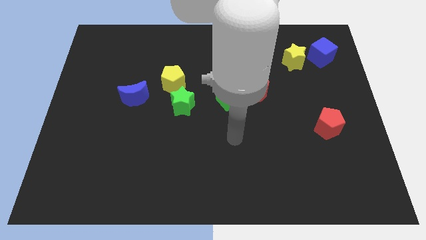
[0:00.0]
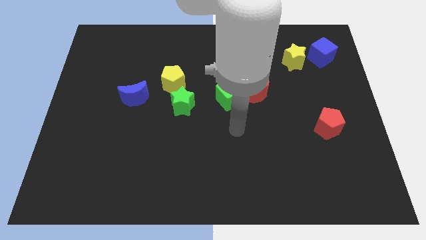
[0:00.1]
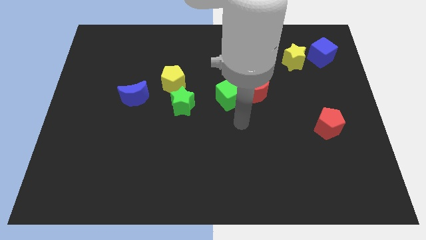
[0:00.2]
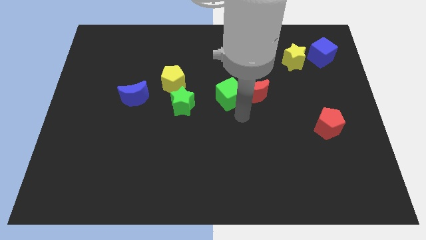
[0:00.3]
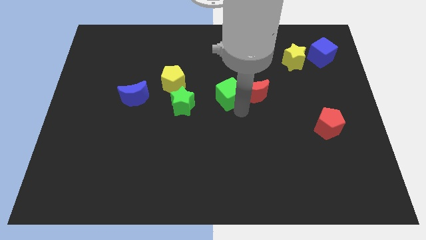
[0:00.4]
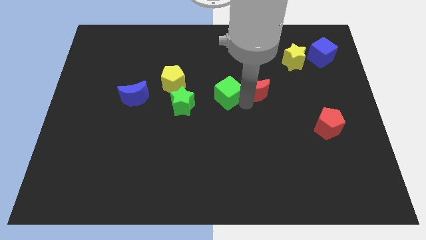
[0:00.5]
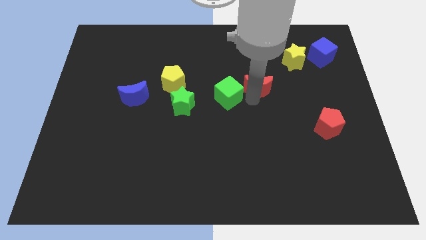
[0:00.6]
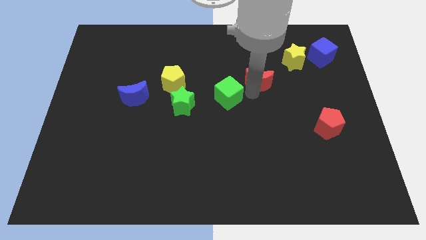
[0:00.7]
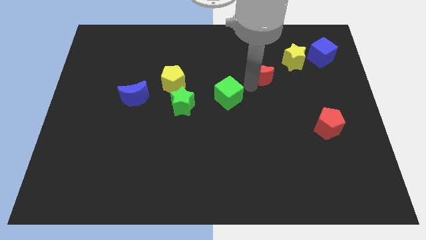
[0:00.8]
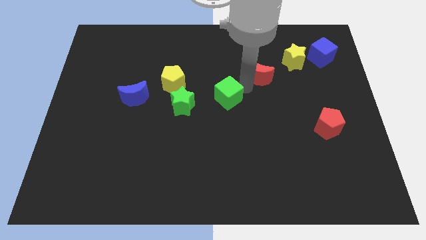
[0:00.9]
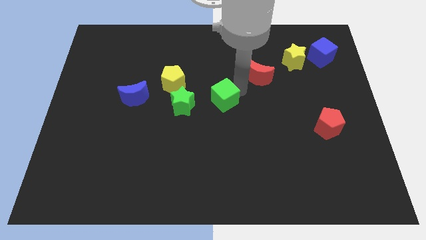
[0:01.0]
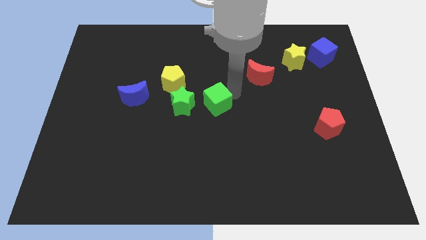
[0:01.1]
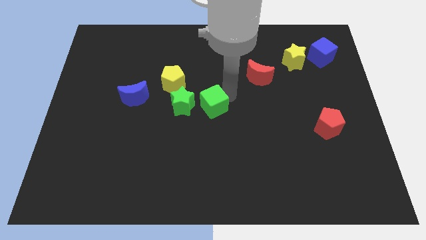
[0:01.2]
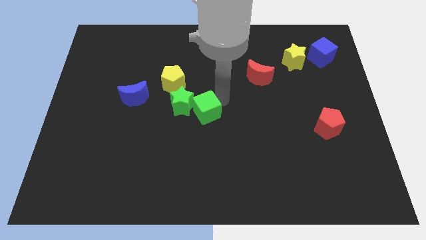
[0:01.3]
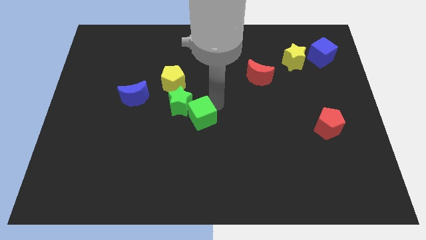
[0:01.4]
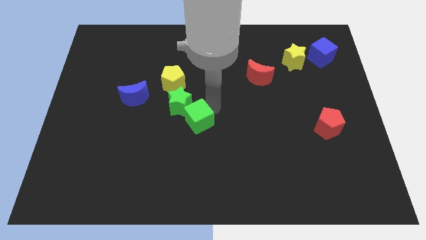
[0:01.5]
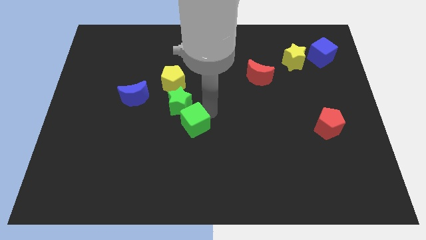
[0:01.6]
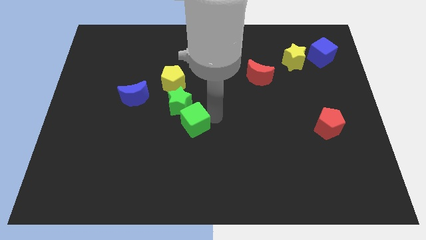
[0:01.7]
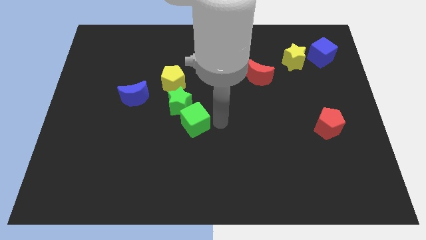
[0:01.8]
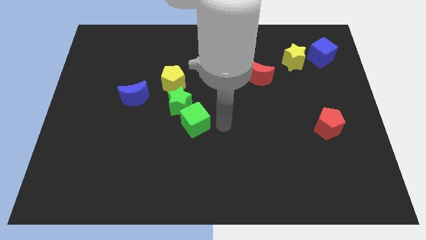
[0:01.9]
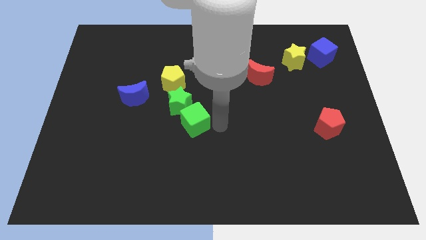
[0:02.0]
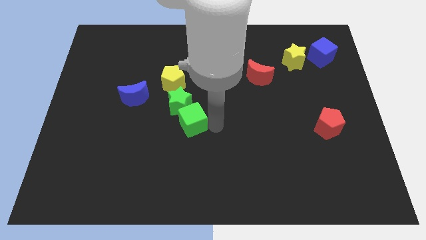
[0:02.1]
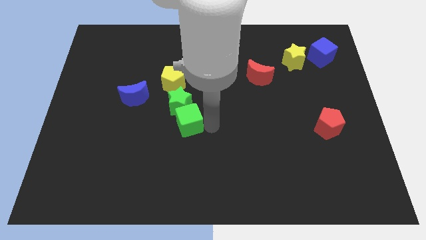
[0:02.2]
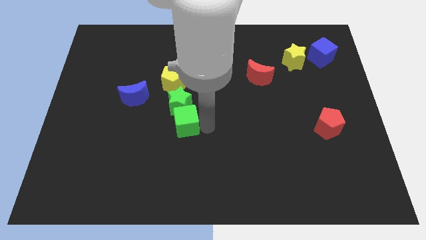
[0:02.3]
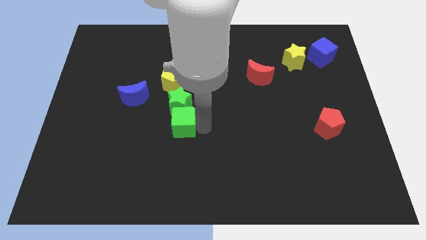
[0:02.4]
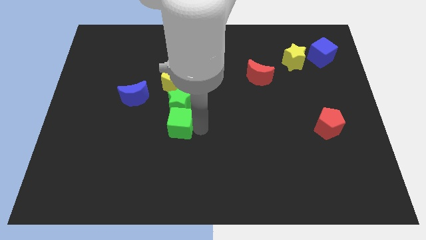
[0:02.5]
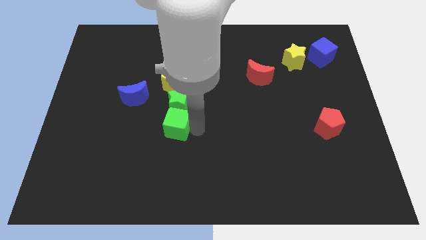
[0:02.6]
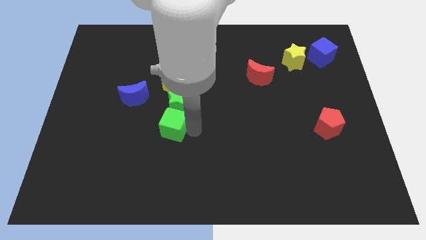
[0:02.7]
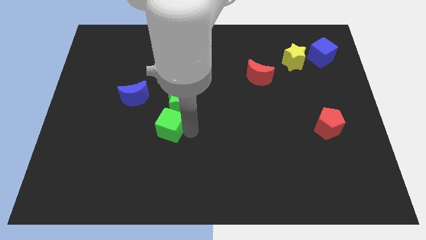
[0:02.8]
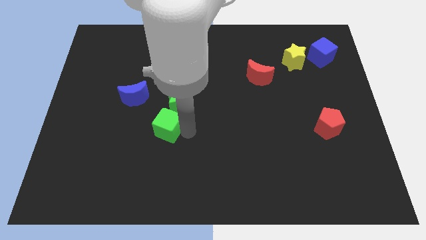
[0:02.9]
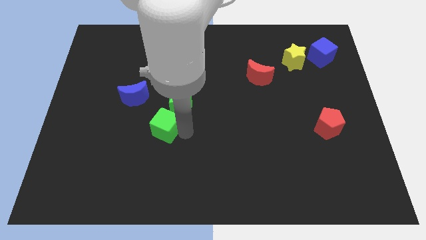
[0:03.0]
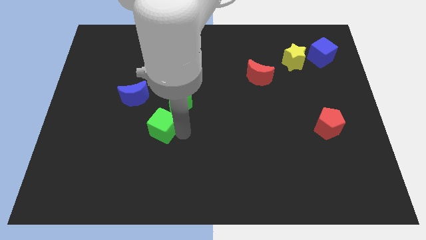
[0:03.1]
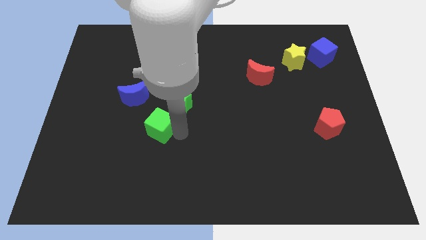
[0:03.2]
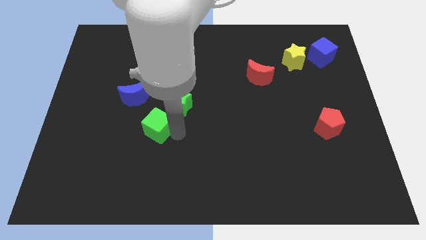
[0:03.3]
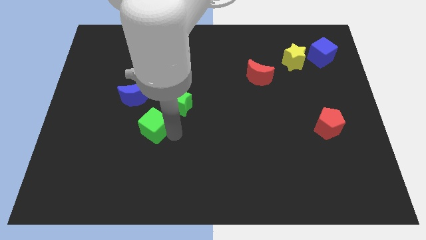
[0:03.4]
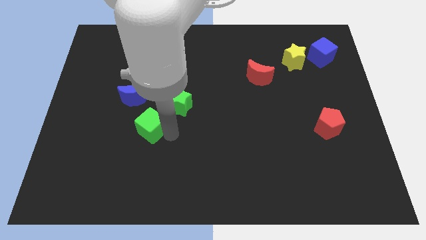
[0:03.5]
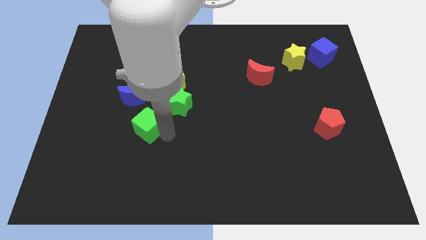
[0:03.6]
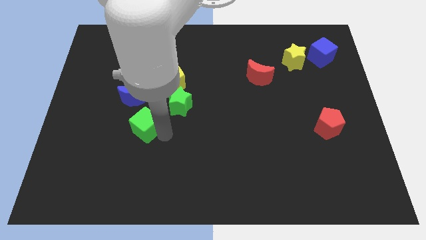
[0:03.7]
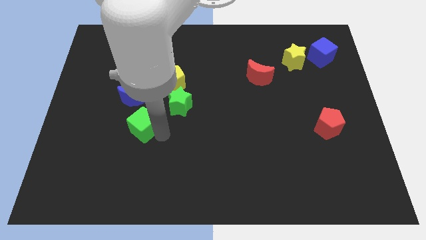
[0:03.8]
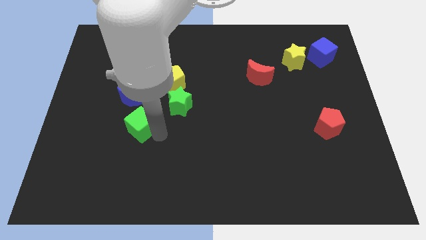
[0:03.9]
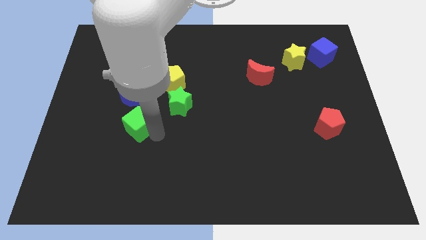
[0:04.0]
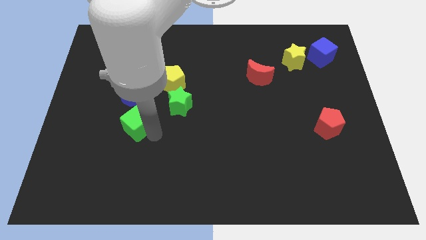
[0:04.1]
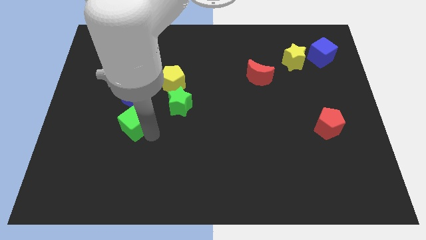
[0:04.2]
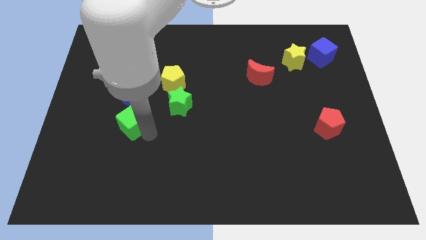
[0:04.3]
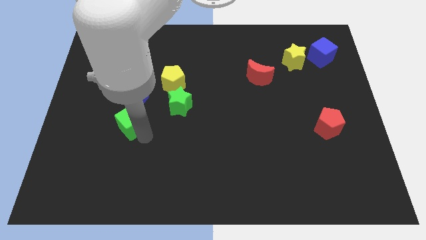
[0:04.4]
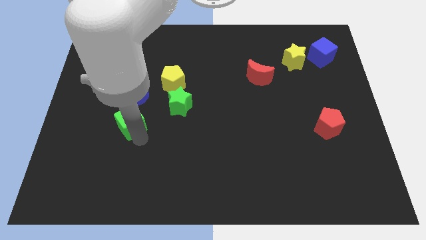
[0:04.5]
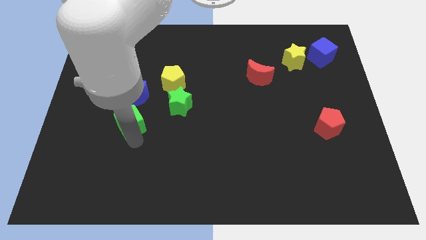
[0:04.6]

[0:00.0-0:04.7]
slide the green cube left

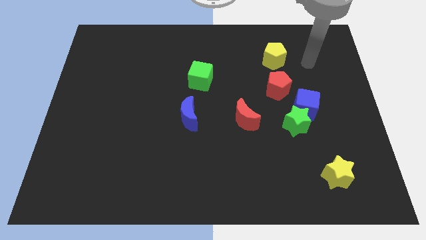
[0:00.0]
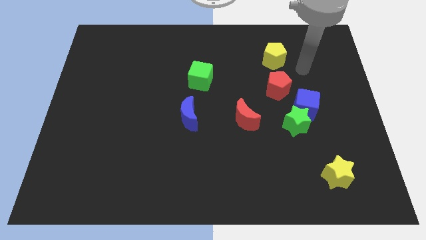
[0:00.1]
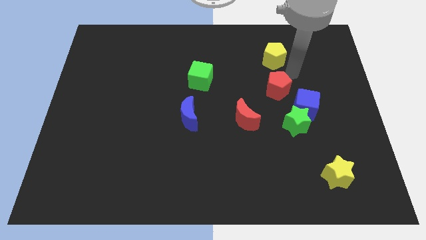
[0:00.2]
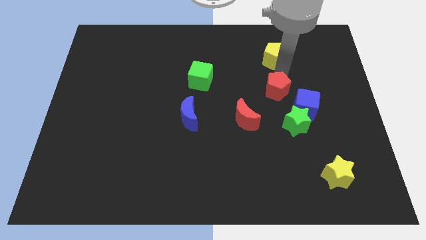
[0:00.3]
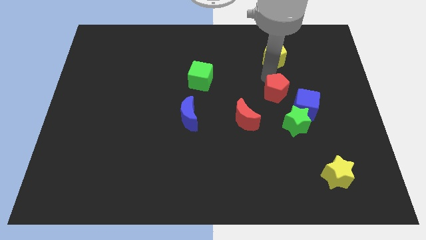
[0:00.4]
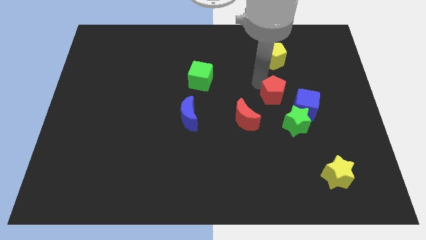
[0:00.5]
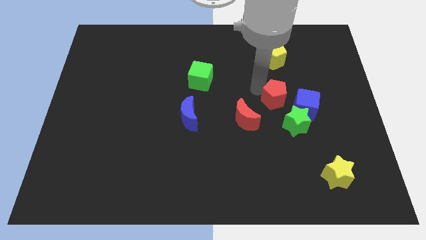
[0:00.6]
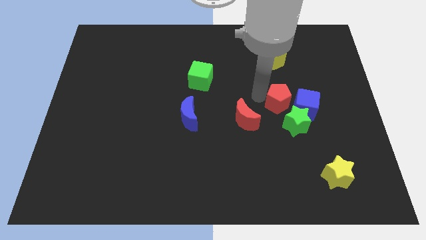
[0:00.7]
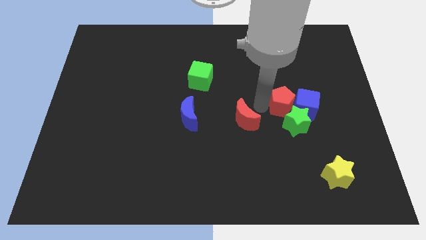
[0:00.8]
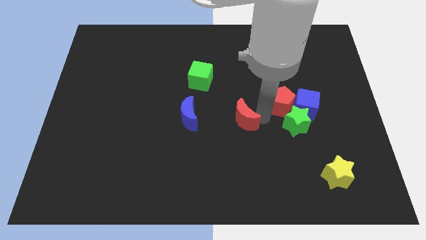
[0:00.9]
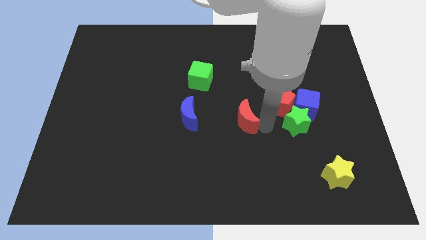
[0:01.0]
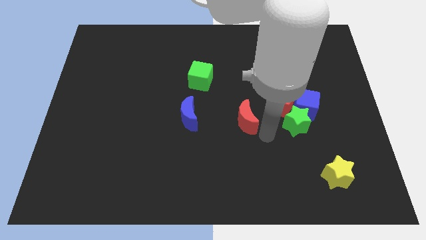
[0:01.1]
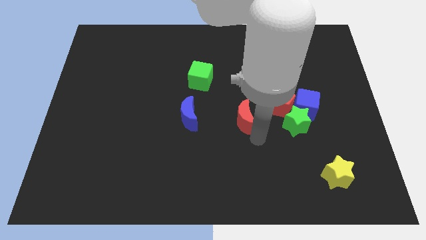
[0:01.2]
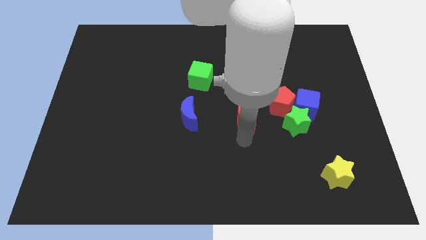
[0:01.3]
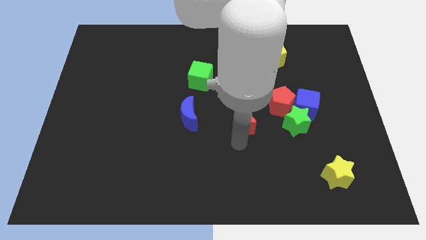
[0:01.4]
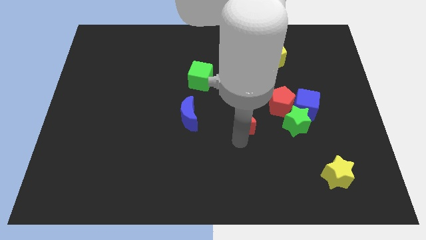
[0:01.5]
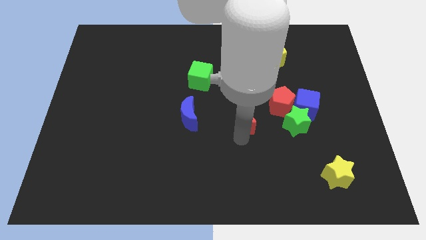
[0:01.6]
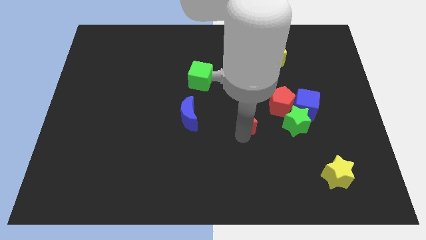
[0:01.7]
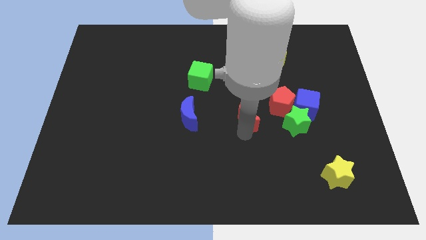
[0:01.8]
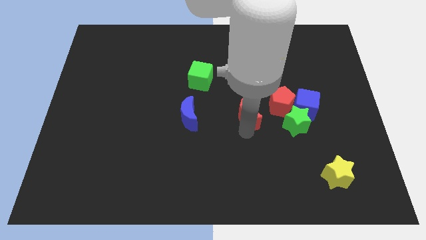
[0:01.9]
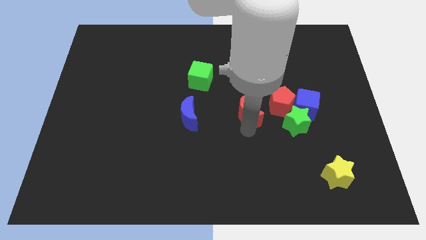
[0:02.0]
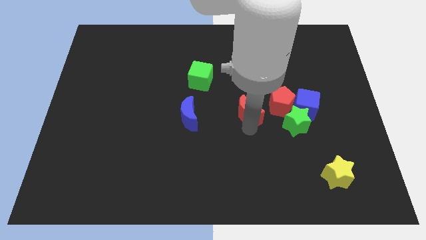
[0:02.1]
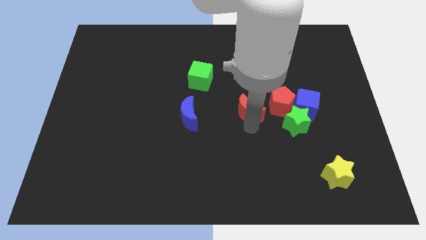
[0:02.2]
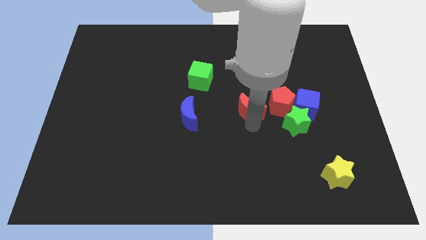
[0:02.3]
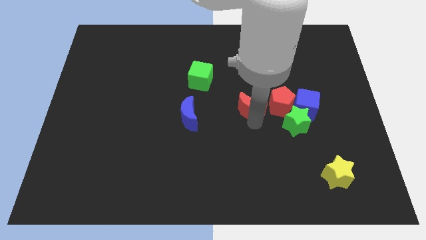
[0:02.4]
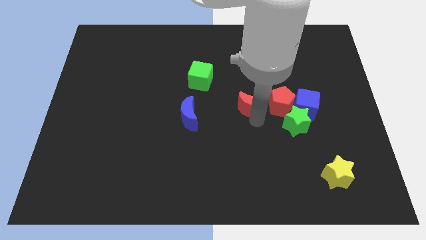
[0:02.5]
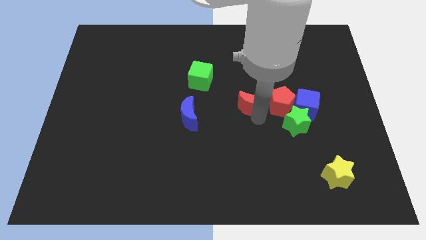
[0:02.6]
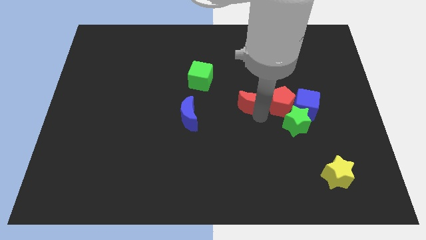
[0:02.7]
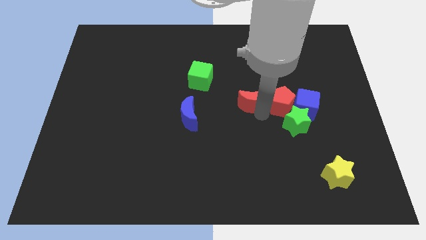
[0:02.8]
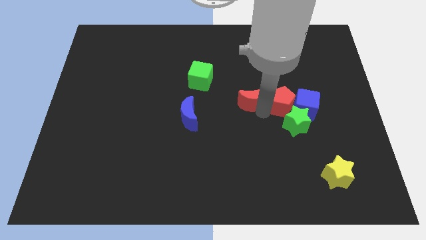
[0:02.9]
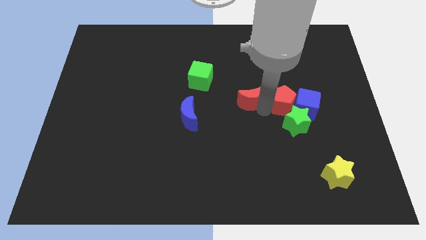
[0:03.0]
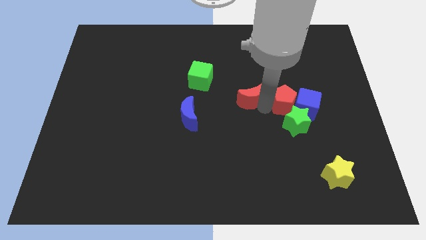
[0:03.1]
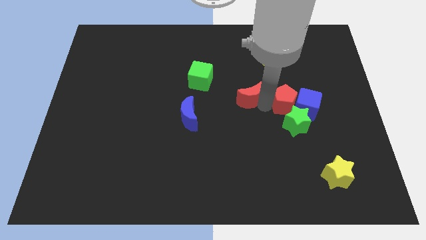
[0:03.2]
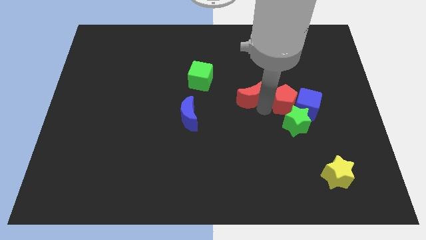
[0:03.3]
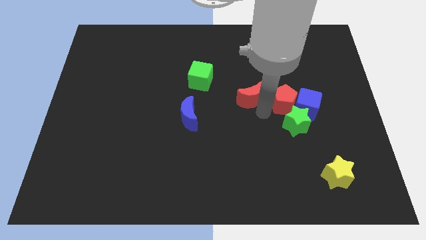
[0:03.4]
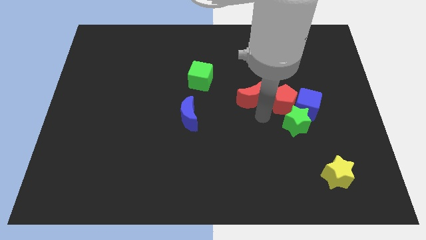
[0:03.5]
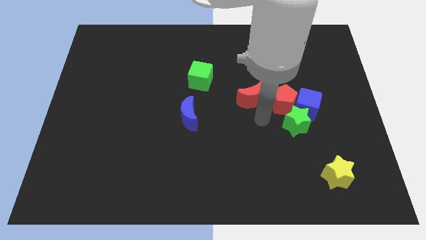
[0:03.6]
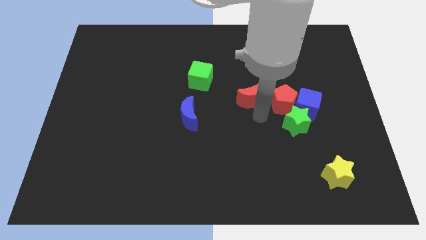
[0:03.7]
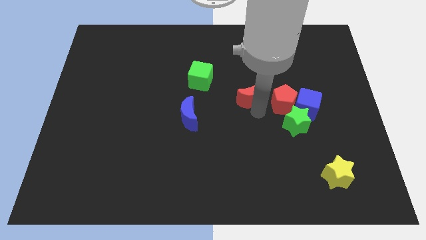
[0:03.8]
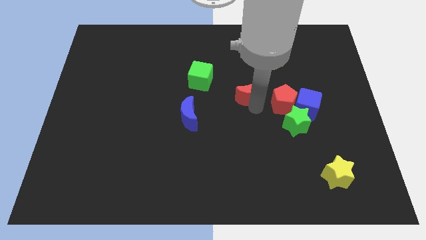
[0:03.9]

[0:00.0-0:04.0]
slide the red moon a bit upwards
